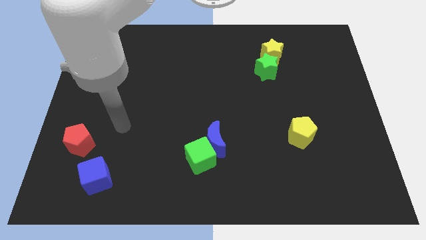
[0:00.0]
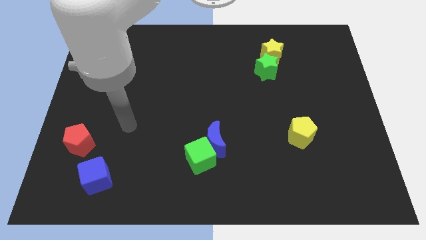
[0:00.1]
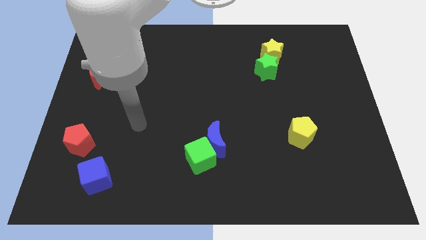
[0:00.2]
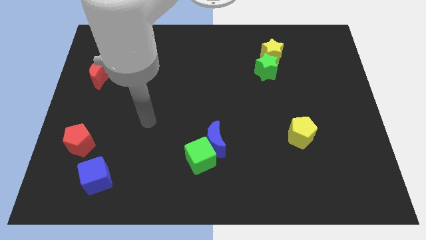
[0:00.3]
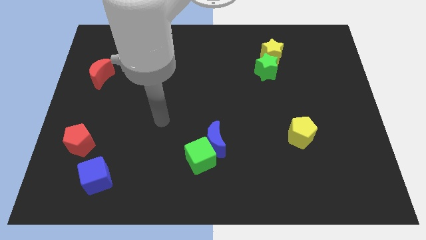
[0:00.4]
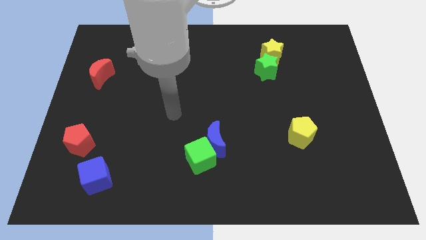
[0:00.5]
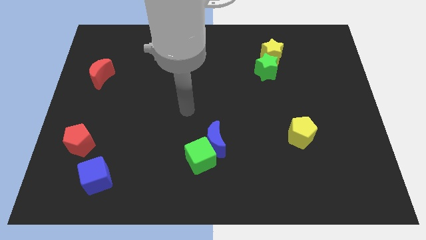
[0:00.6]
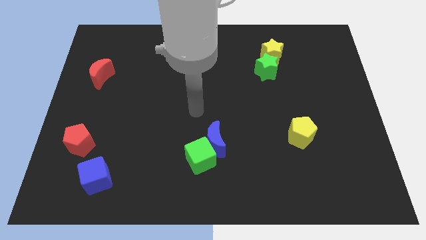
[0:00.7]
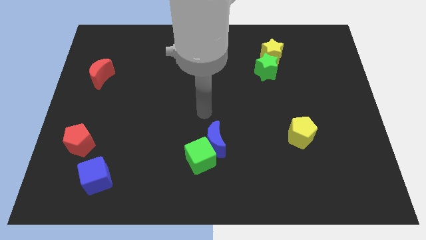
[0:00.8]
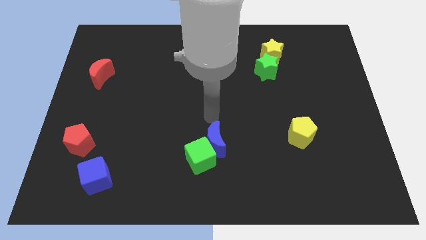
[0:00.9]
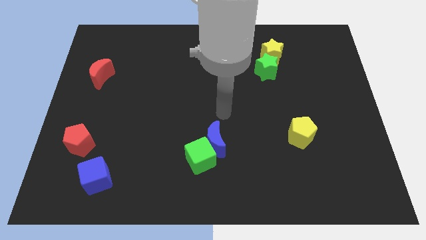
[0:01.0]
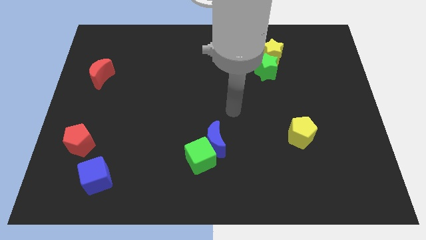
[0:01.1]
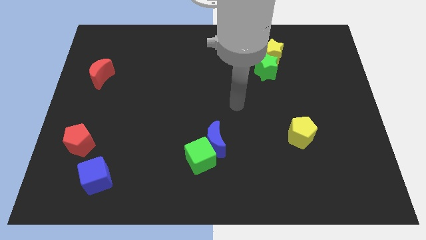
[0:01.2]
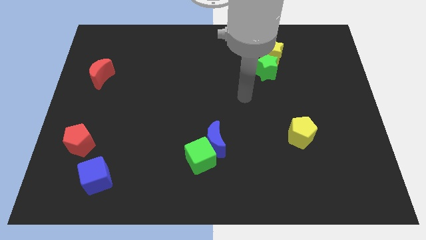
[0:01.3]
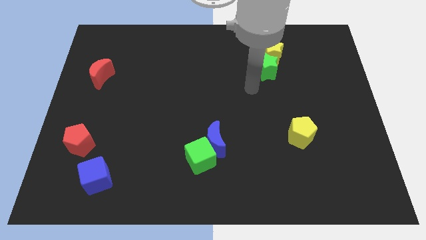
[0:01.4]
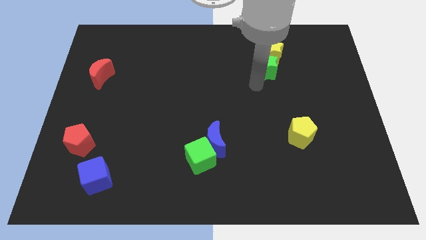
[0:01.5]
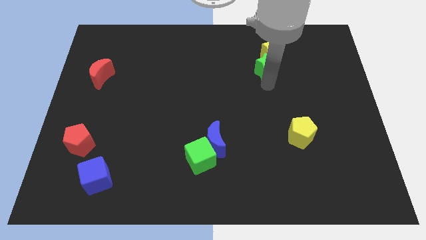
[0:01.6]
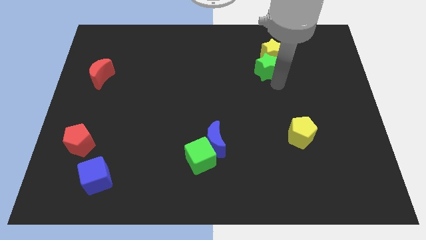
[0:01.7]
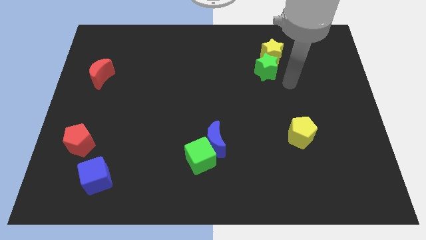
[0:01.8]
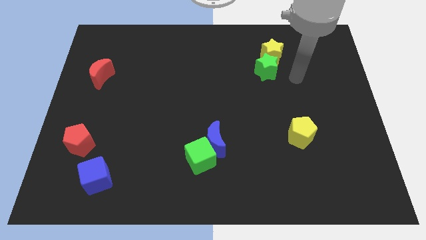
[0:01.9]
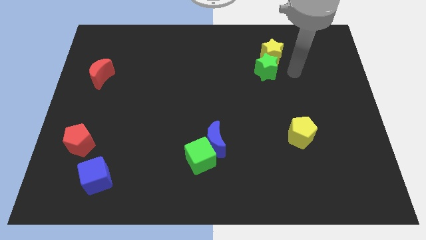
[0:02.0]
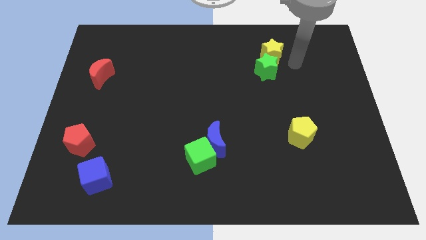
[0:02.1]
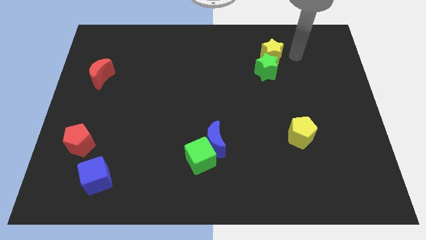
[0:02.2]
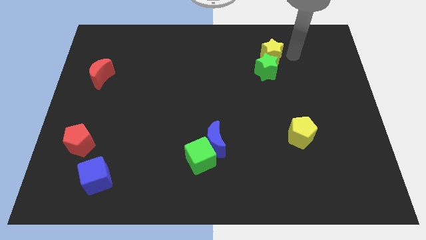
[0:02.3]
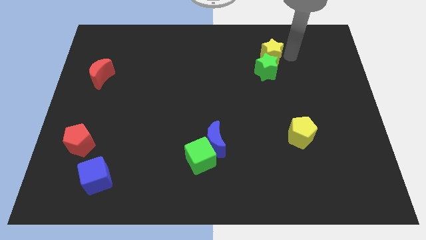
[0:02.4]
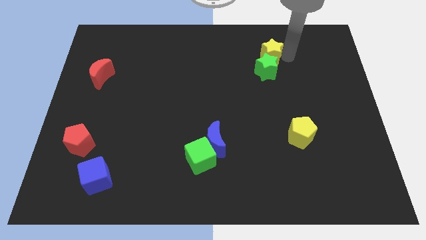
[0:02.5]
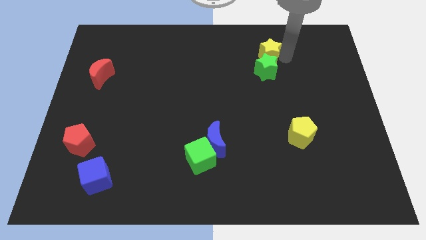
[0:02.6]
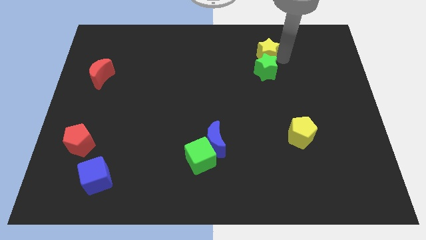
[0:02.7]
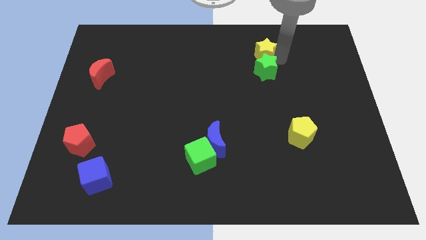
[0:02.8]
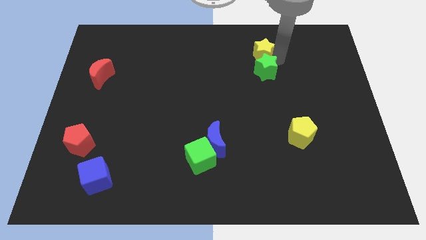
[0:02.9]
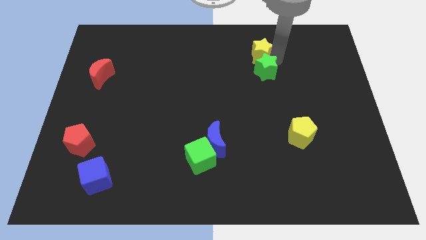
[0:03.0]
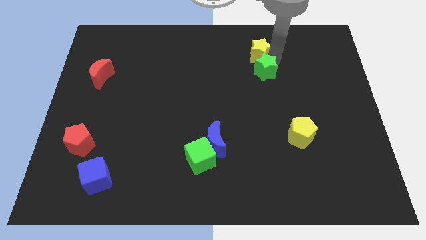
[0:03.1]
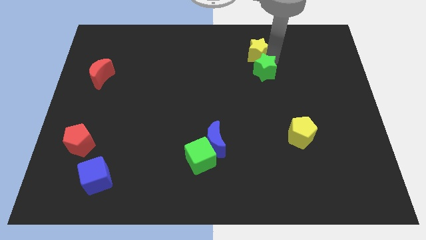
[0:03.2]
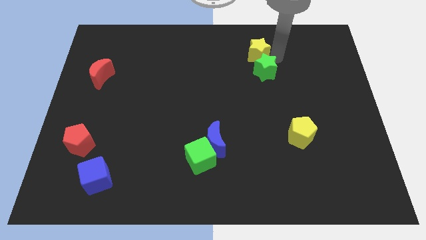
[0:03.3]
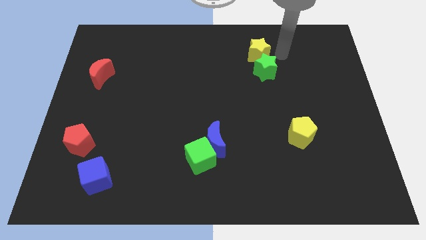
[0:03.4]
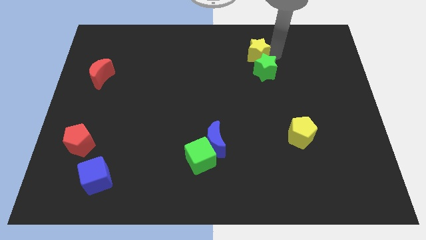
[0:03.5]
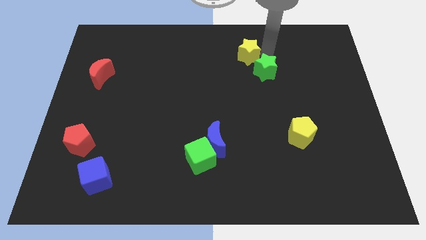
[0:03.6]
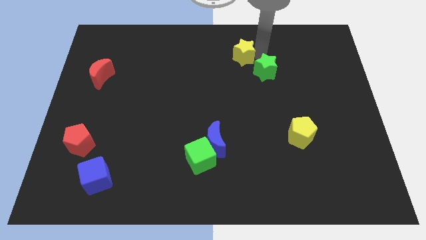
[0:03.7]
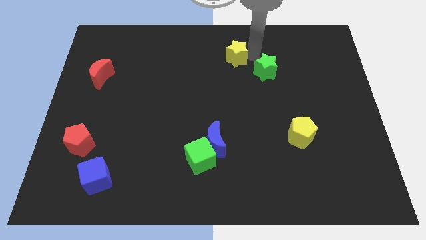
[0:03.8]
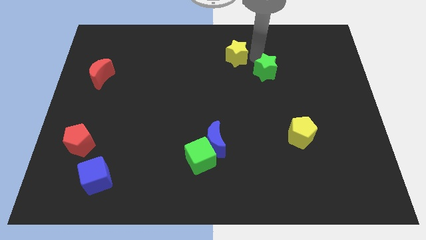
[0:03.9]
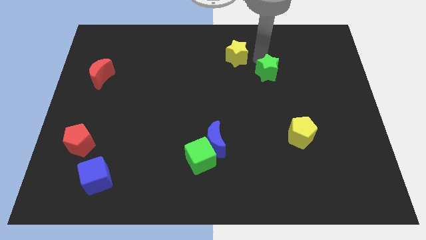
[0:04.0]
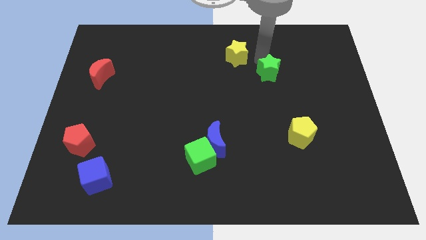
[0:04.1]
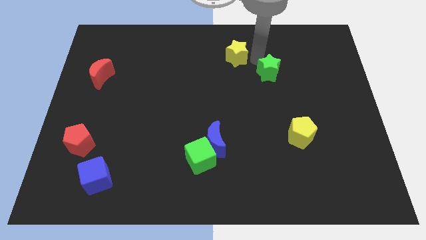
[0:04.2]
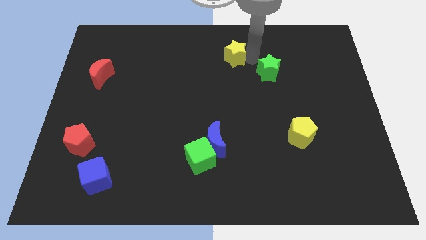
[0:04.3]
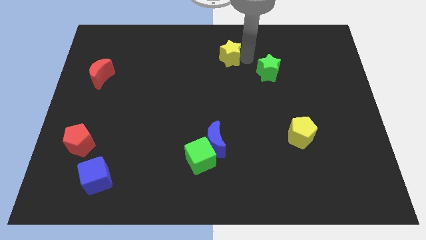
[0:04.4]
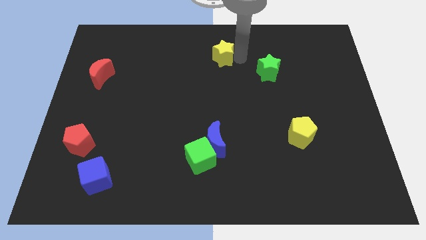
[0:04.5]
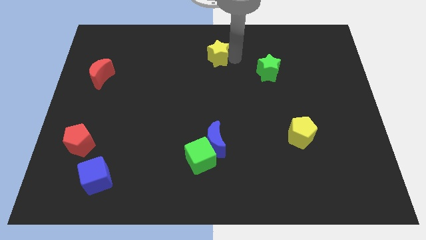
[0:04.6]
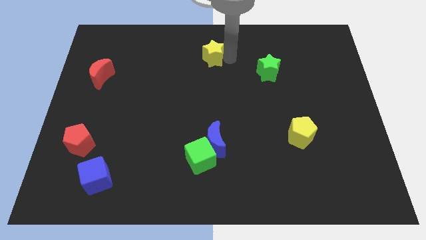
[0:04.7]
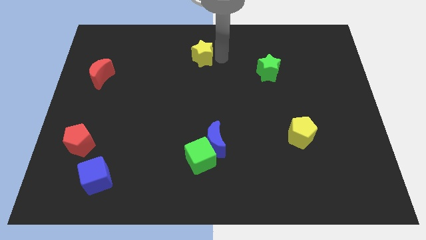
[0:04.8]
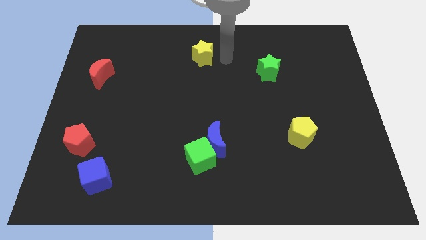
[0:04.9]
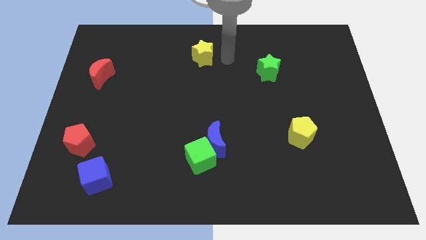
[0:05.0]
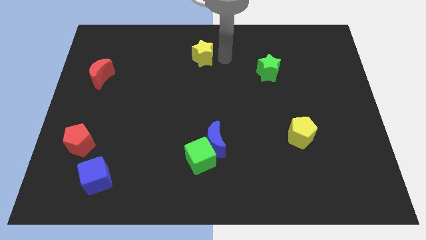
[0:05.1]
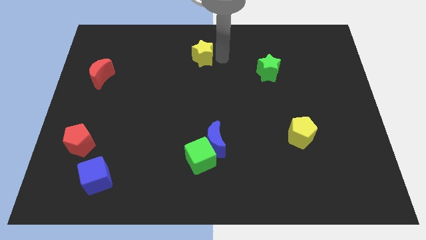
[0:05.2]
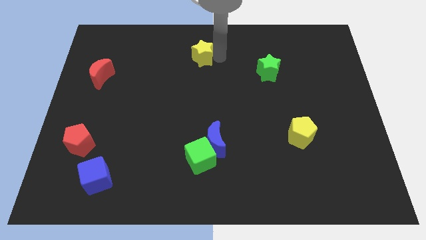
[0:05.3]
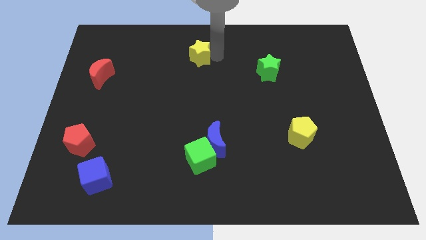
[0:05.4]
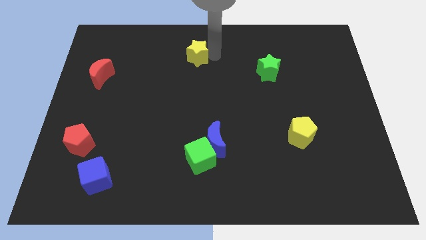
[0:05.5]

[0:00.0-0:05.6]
slide the yellow star to the left

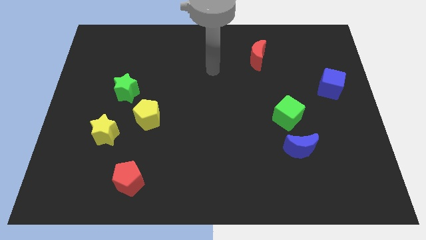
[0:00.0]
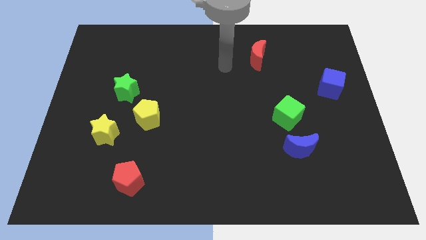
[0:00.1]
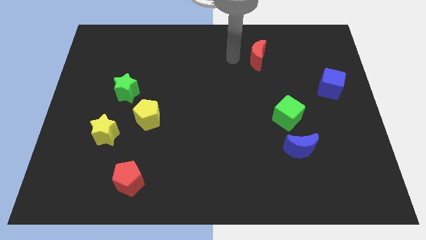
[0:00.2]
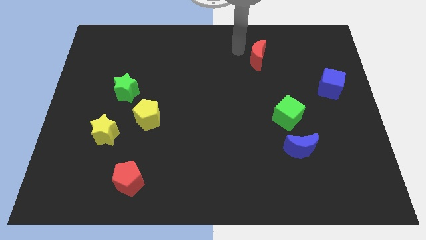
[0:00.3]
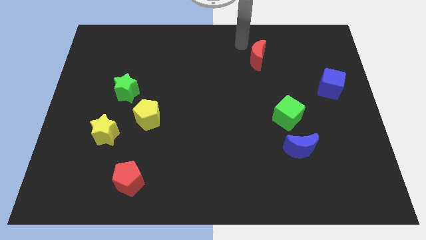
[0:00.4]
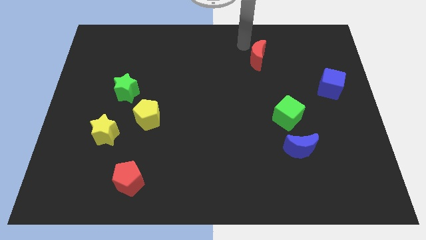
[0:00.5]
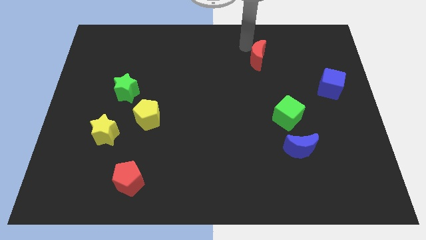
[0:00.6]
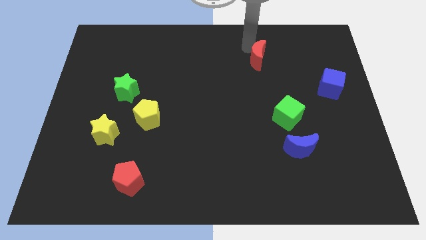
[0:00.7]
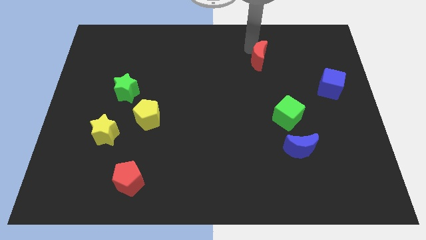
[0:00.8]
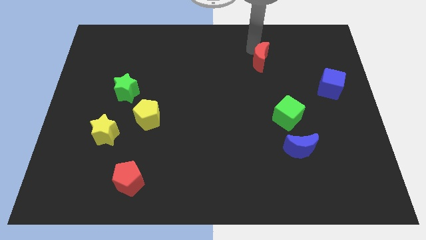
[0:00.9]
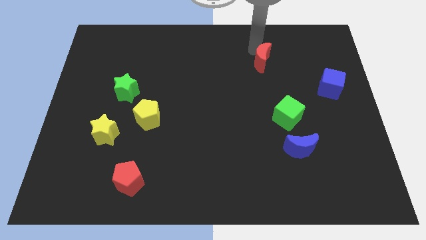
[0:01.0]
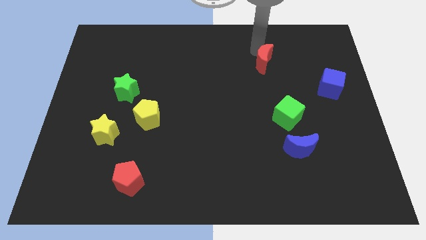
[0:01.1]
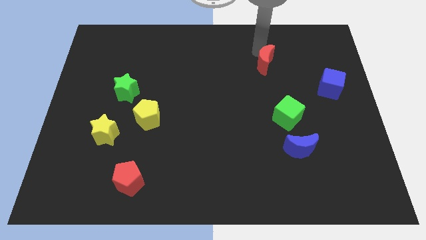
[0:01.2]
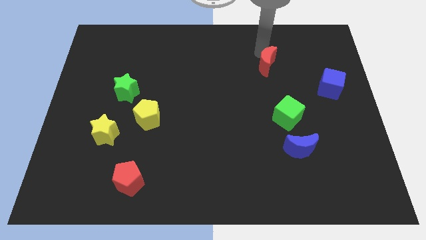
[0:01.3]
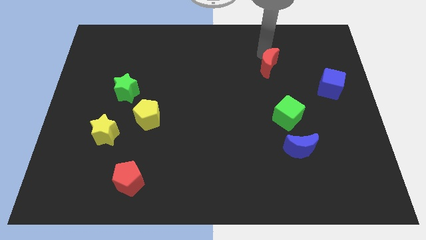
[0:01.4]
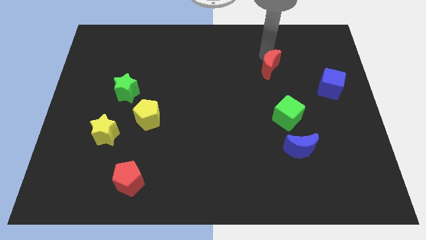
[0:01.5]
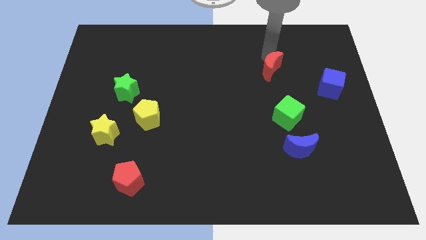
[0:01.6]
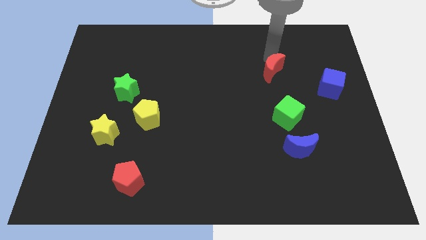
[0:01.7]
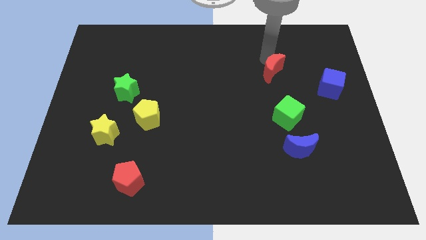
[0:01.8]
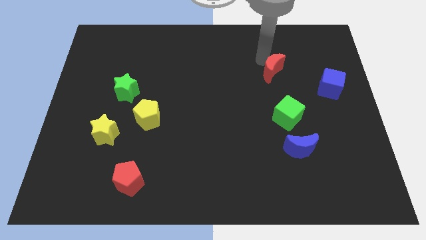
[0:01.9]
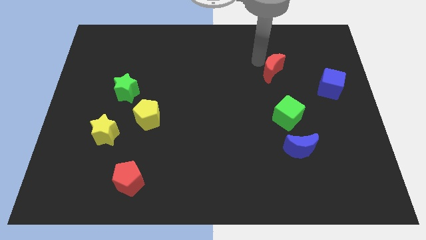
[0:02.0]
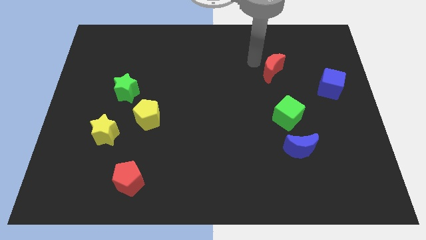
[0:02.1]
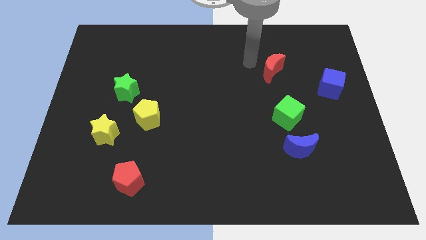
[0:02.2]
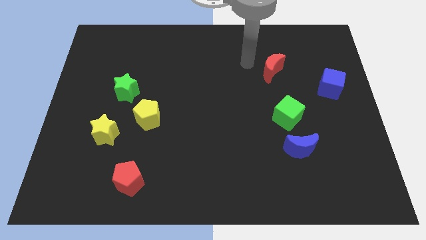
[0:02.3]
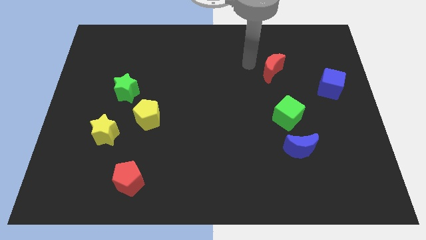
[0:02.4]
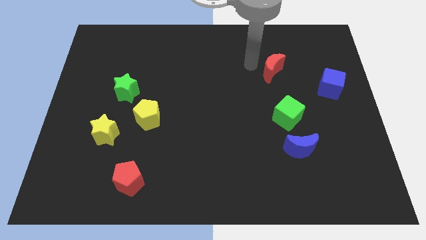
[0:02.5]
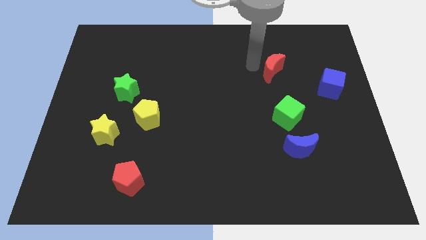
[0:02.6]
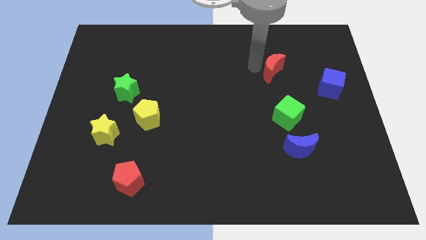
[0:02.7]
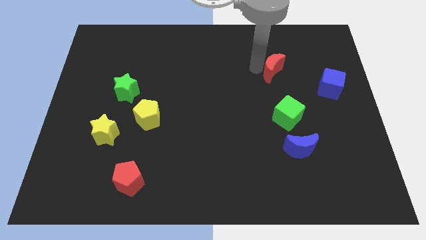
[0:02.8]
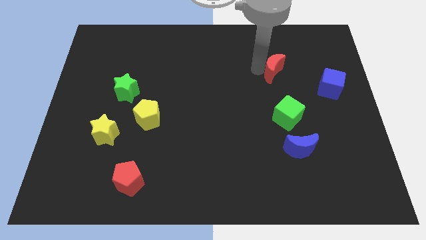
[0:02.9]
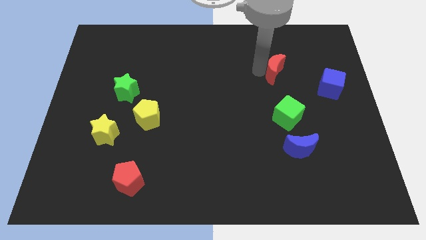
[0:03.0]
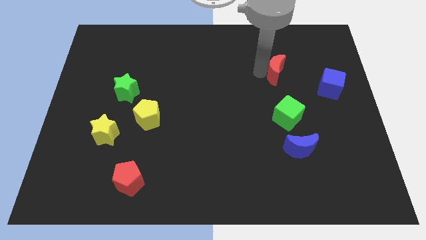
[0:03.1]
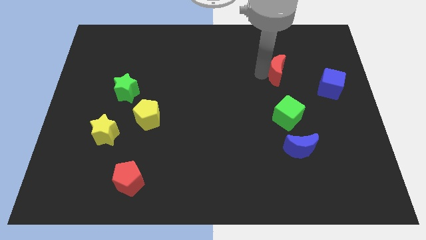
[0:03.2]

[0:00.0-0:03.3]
push the red moon downwards and then right slightly
